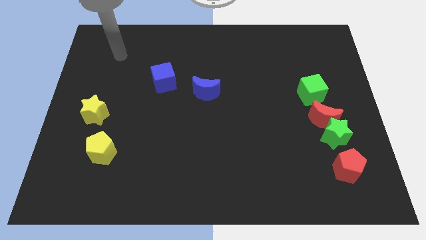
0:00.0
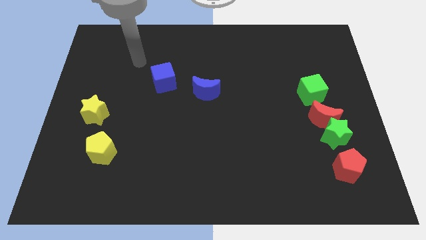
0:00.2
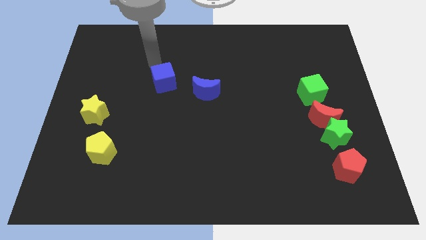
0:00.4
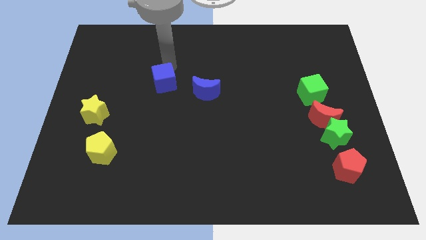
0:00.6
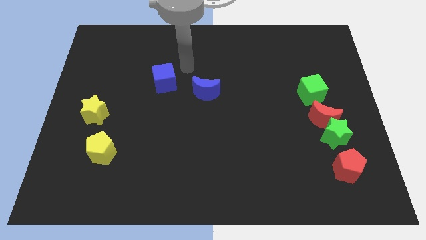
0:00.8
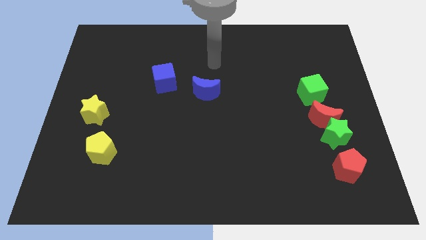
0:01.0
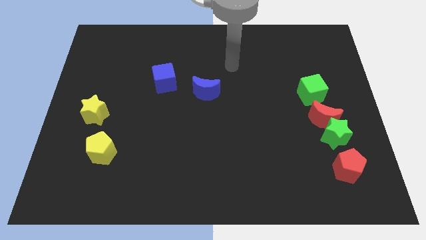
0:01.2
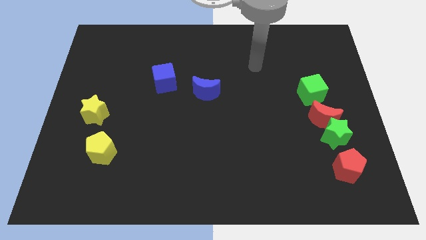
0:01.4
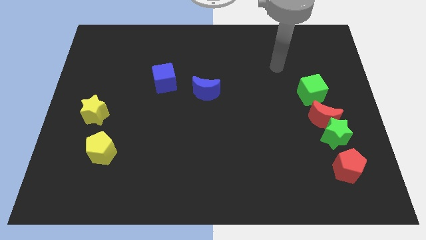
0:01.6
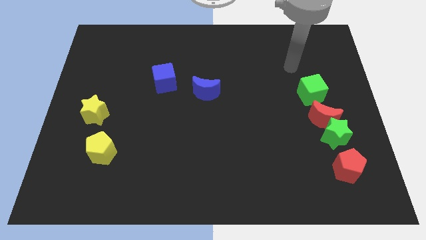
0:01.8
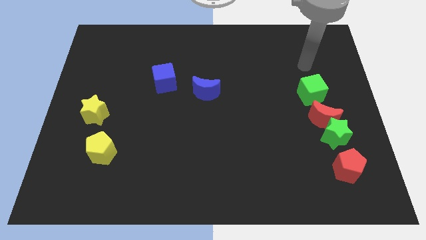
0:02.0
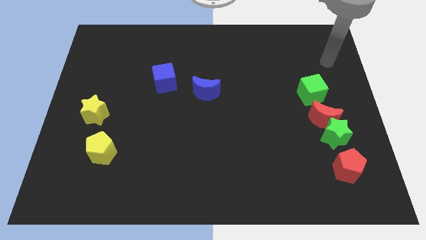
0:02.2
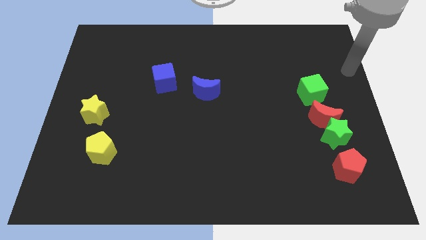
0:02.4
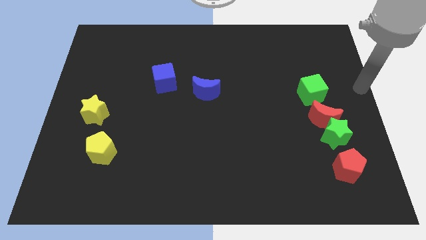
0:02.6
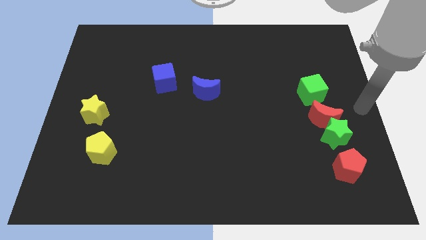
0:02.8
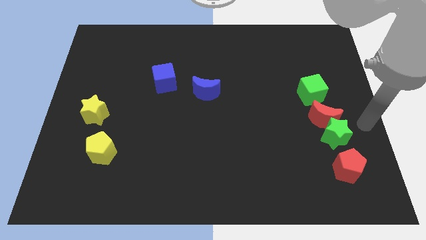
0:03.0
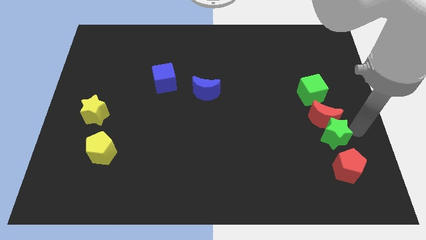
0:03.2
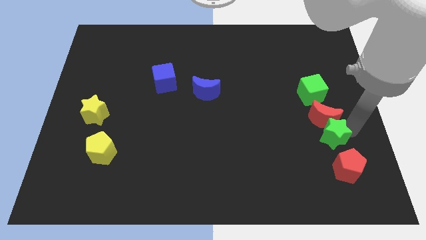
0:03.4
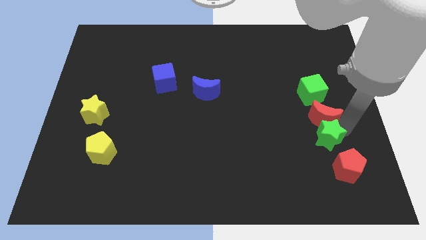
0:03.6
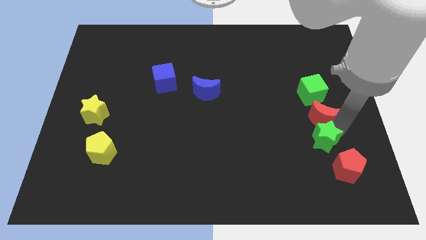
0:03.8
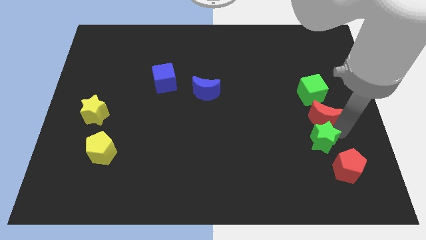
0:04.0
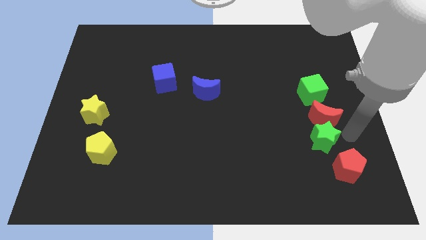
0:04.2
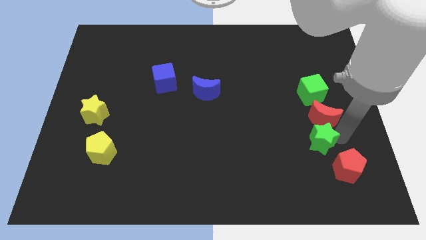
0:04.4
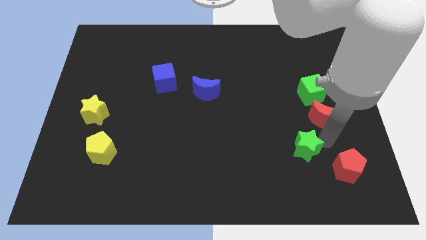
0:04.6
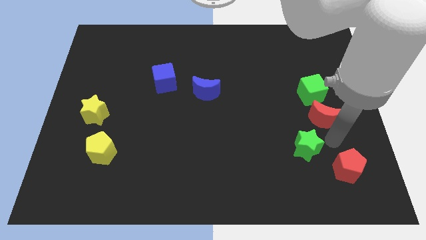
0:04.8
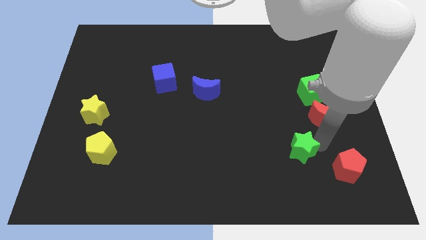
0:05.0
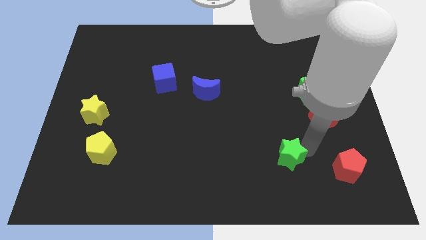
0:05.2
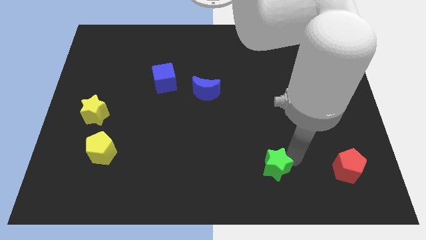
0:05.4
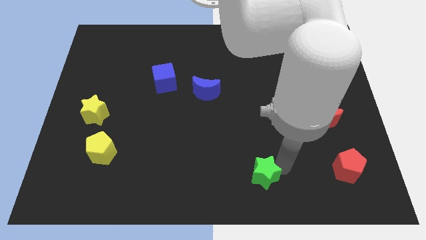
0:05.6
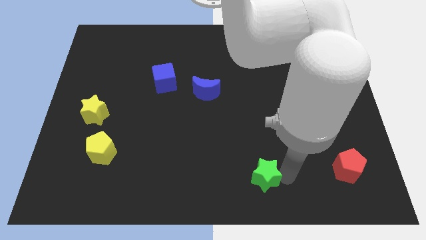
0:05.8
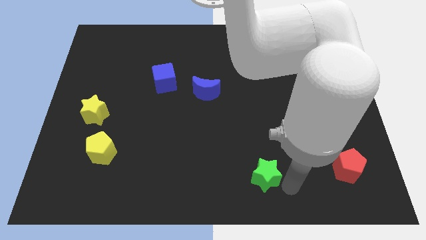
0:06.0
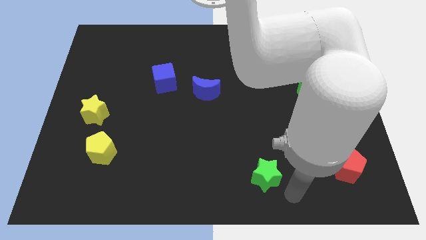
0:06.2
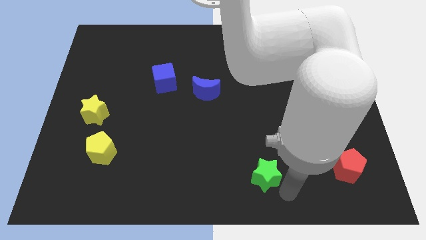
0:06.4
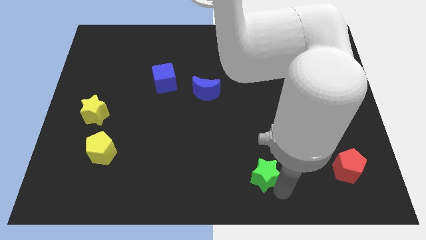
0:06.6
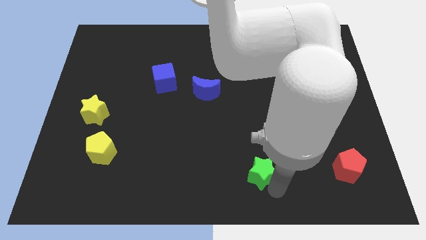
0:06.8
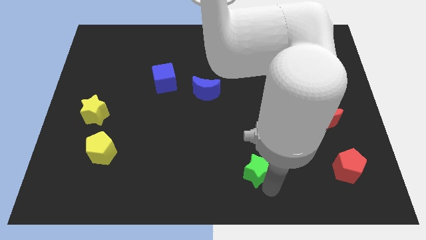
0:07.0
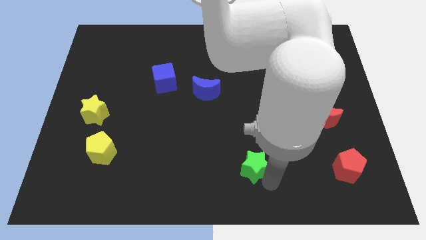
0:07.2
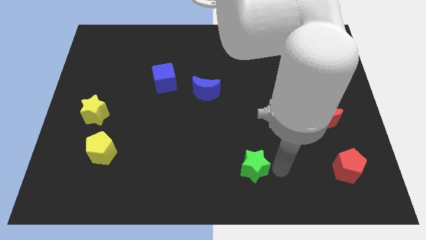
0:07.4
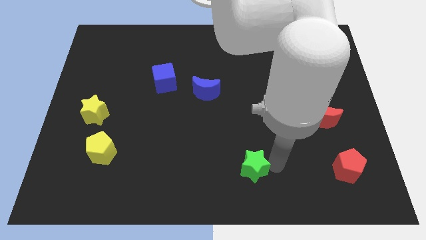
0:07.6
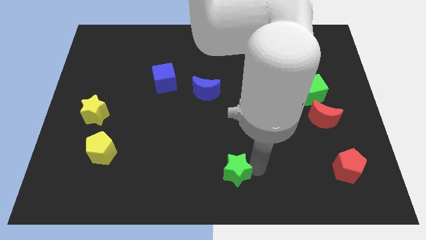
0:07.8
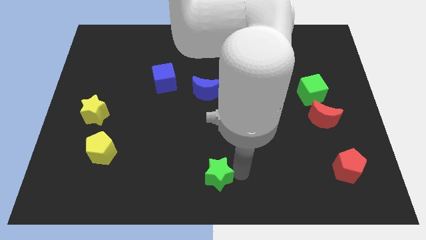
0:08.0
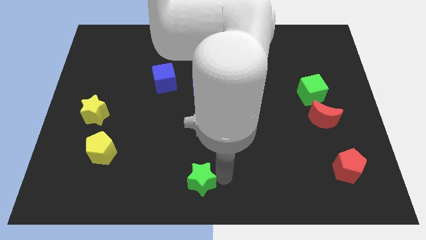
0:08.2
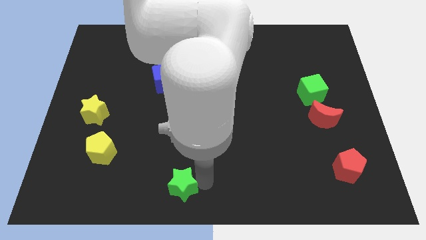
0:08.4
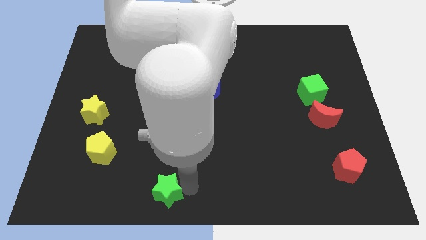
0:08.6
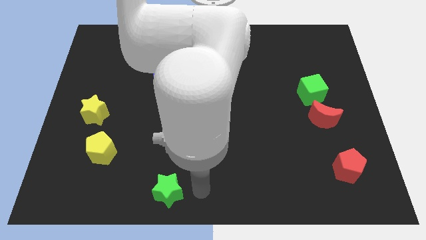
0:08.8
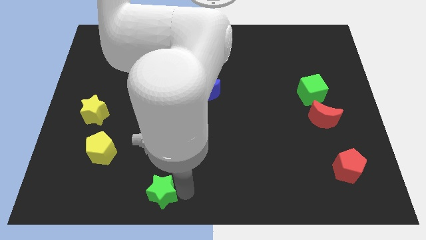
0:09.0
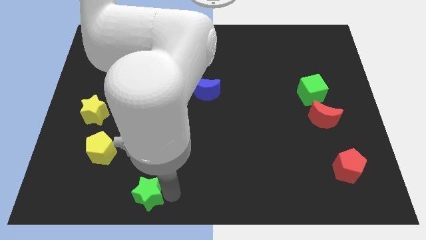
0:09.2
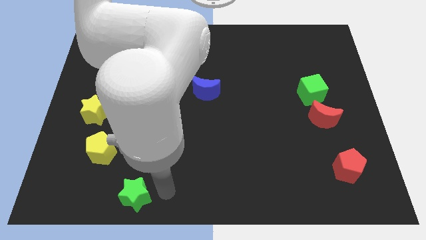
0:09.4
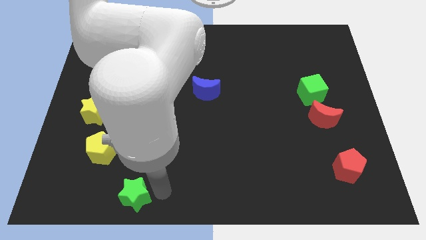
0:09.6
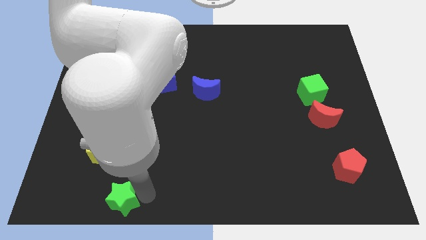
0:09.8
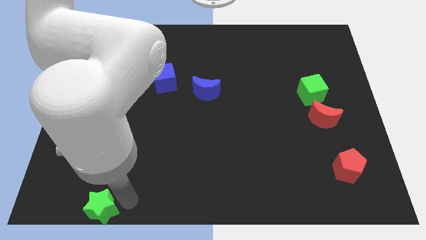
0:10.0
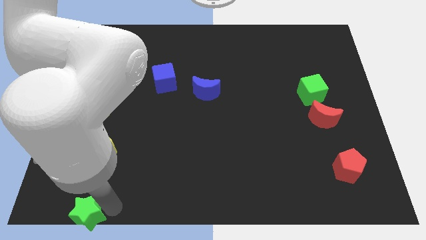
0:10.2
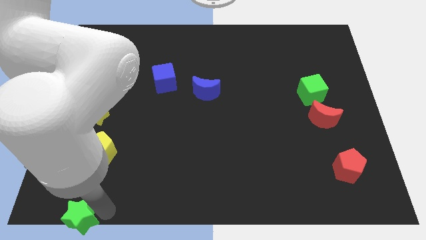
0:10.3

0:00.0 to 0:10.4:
push the green star to the bottom left

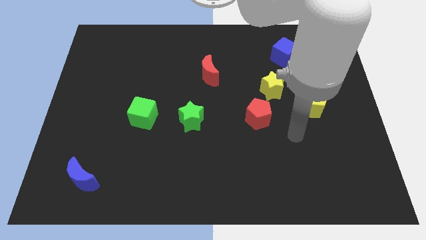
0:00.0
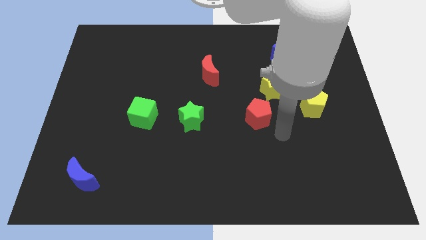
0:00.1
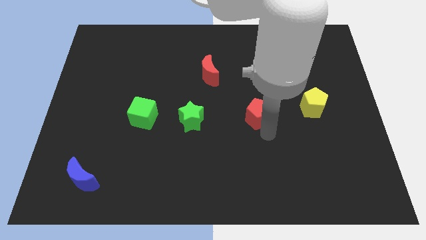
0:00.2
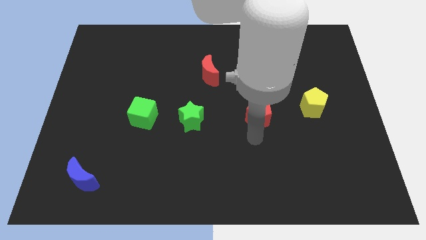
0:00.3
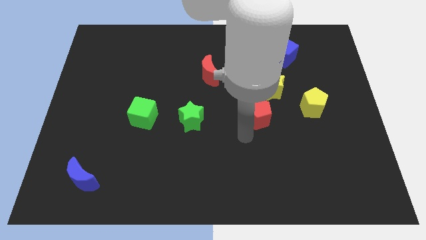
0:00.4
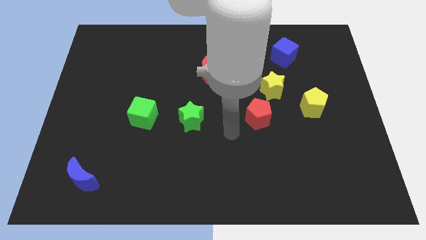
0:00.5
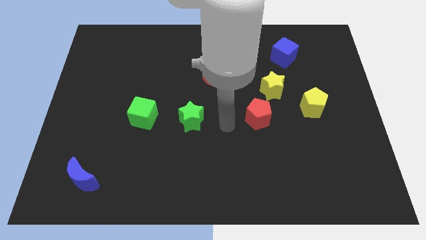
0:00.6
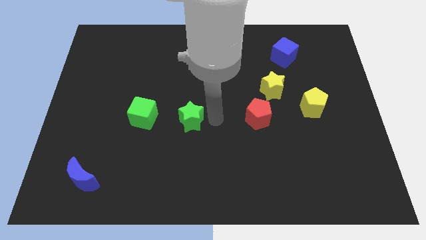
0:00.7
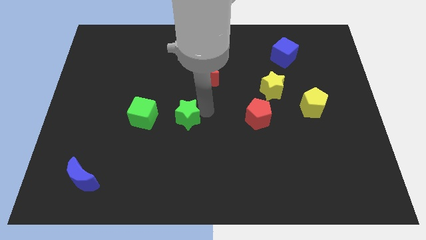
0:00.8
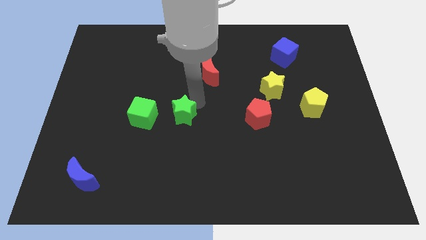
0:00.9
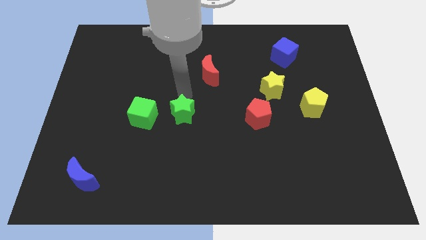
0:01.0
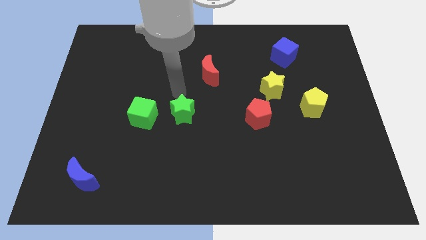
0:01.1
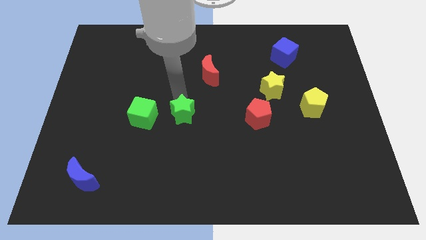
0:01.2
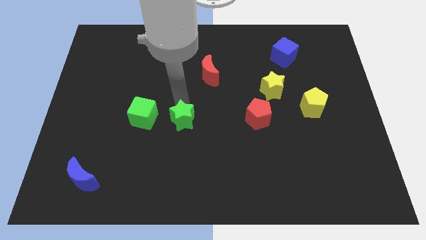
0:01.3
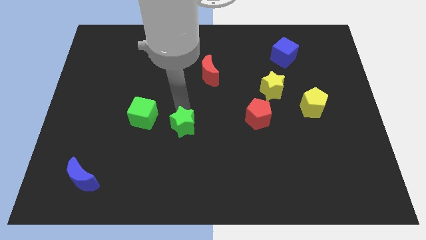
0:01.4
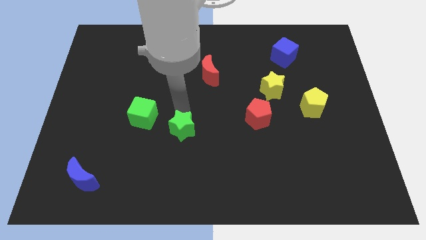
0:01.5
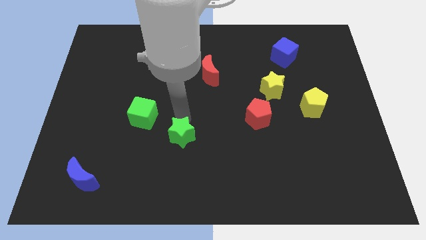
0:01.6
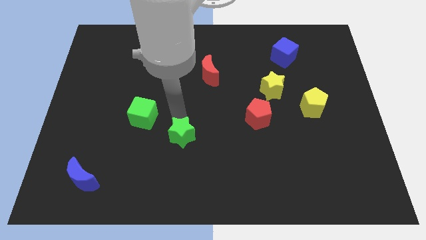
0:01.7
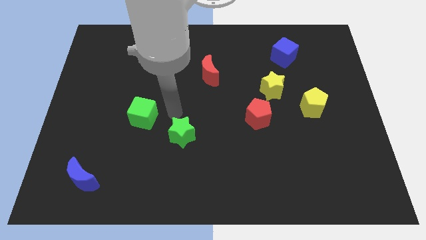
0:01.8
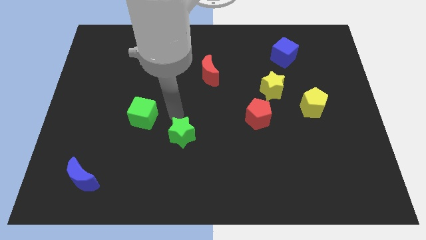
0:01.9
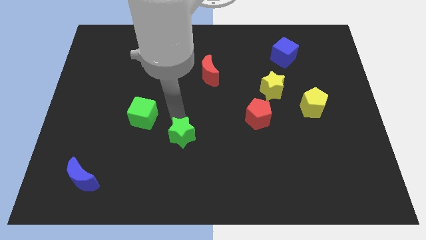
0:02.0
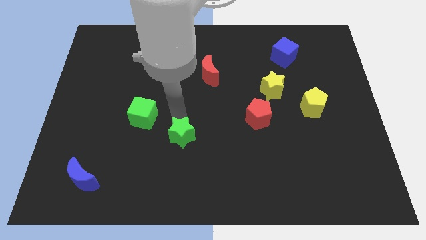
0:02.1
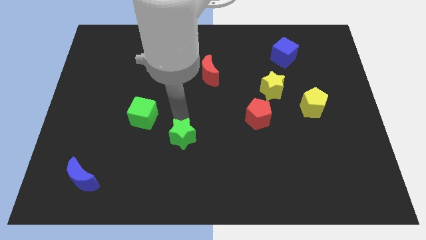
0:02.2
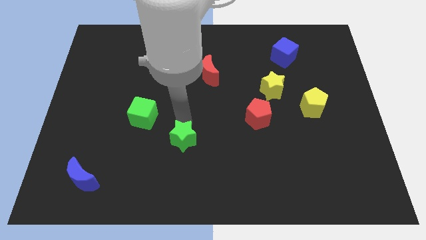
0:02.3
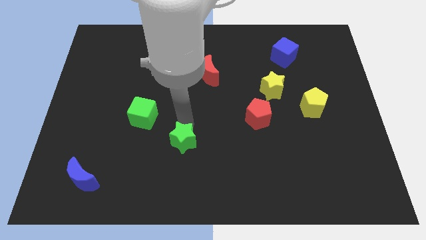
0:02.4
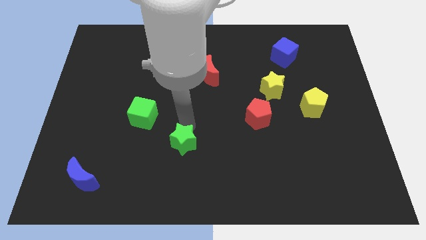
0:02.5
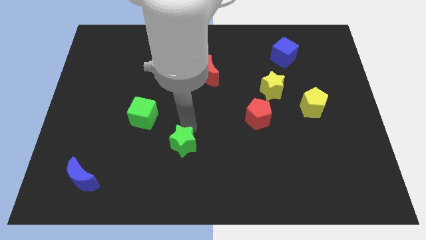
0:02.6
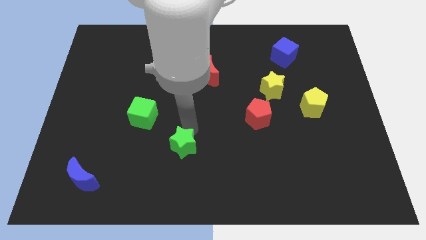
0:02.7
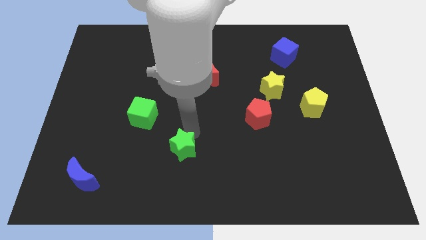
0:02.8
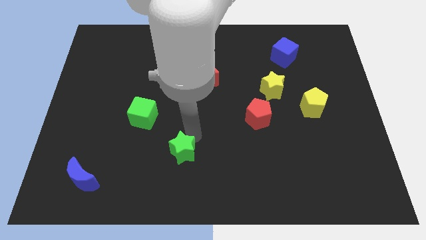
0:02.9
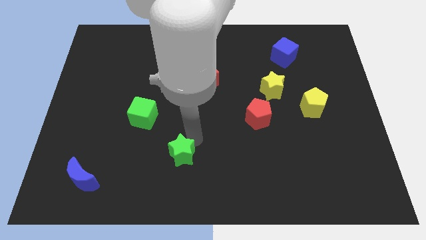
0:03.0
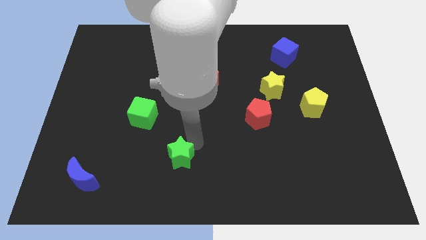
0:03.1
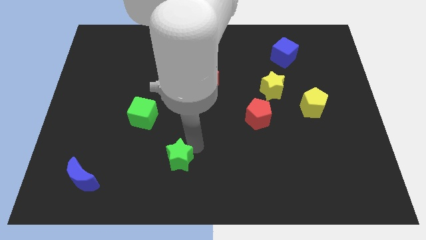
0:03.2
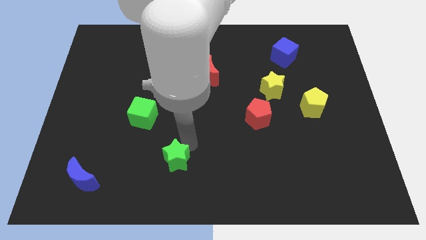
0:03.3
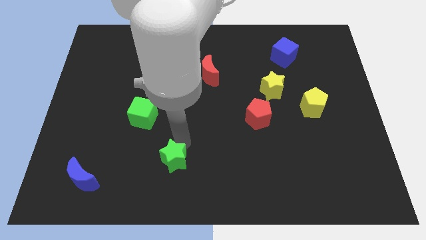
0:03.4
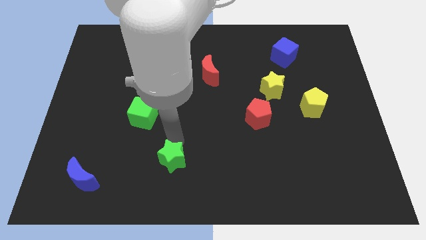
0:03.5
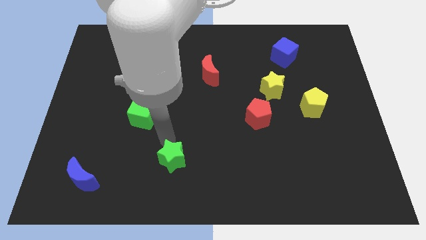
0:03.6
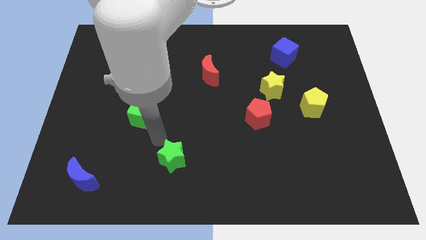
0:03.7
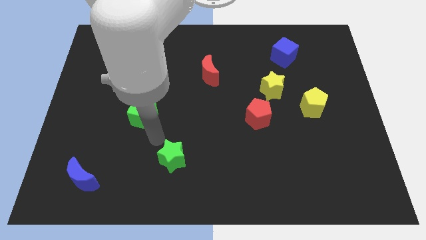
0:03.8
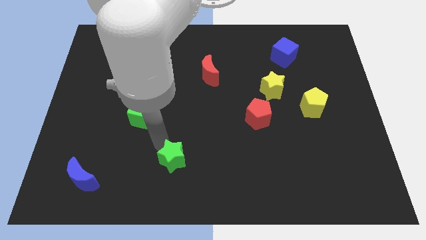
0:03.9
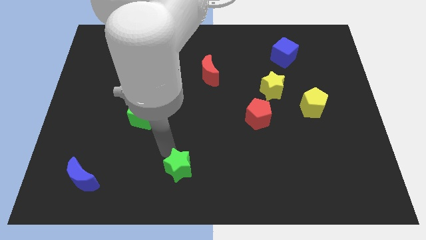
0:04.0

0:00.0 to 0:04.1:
move the green star to the bottom
